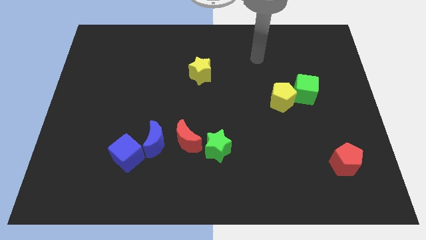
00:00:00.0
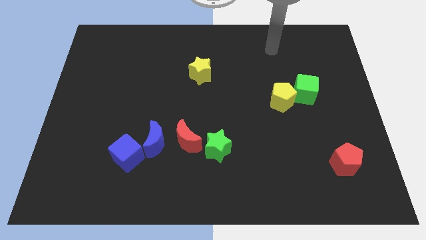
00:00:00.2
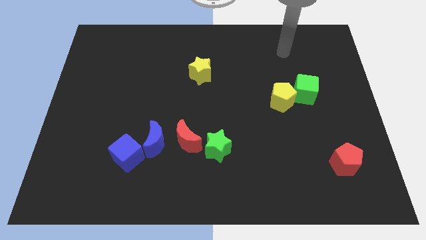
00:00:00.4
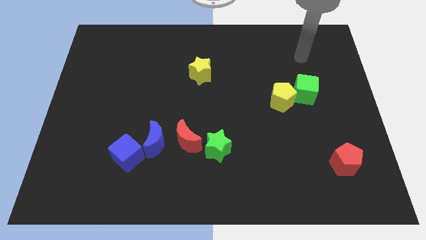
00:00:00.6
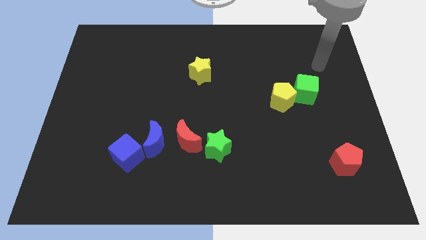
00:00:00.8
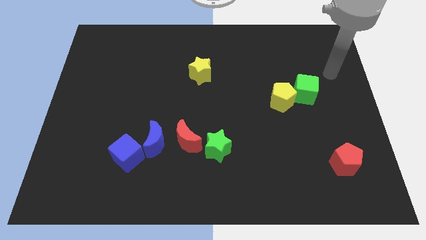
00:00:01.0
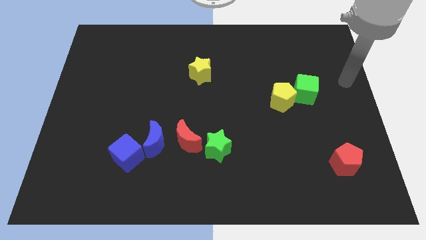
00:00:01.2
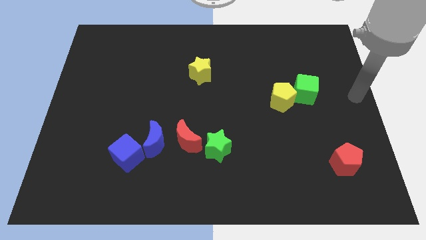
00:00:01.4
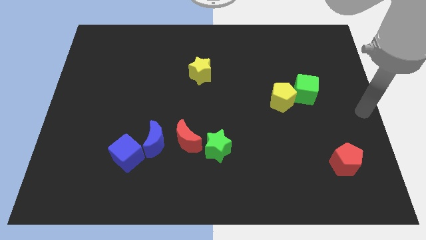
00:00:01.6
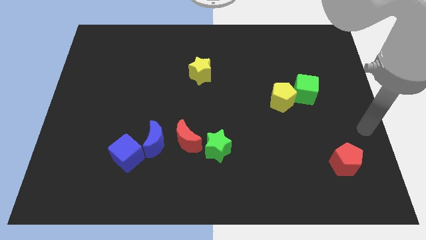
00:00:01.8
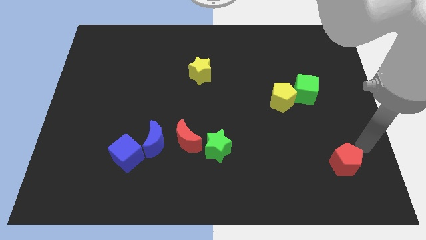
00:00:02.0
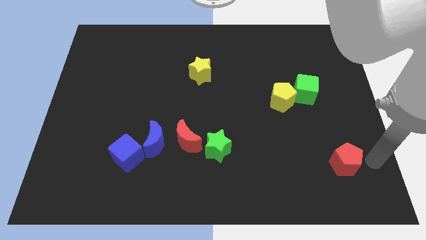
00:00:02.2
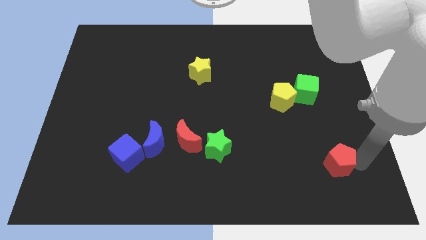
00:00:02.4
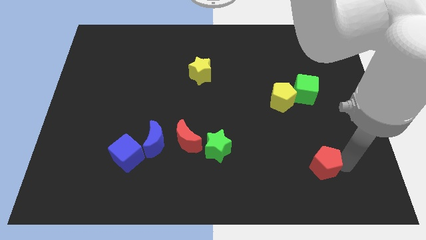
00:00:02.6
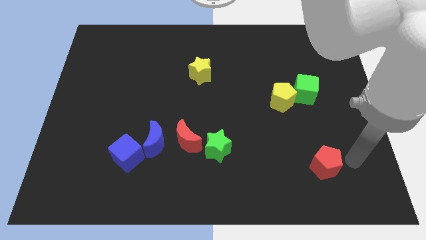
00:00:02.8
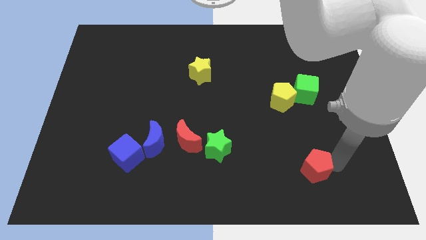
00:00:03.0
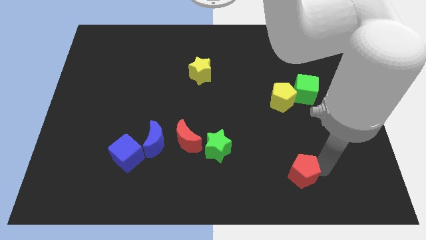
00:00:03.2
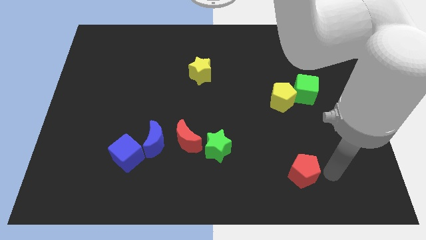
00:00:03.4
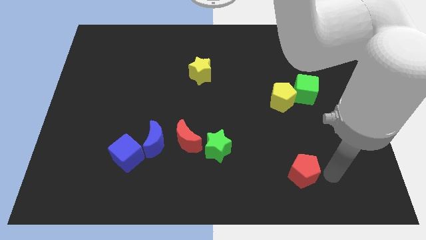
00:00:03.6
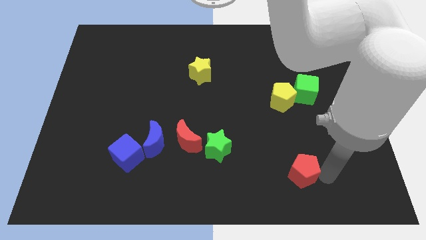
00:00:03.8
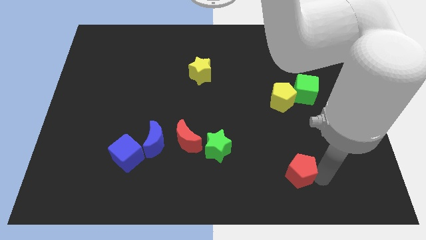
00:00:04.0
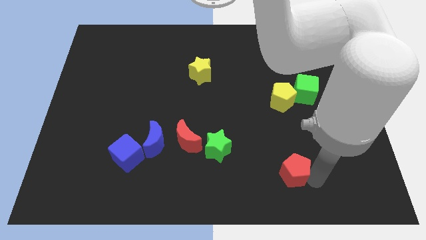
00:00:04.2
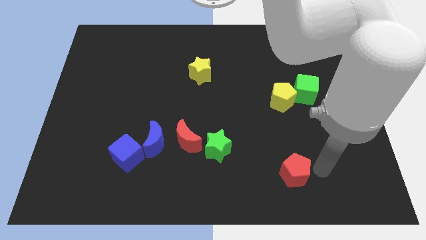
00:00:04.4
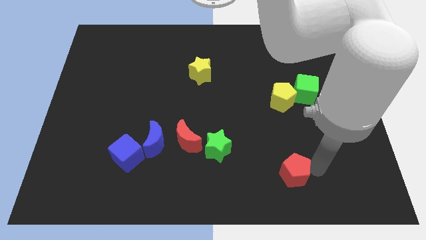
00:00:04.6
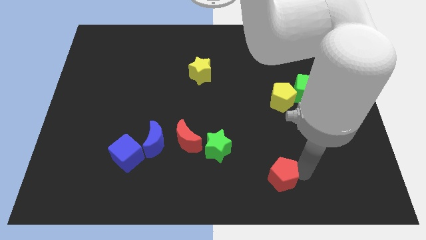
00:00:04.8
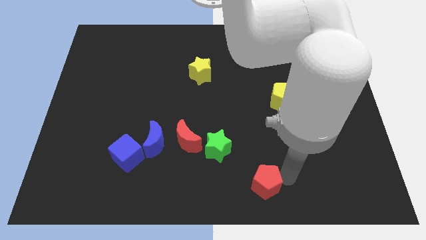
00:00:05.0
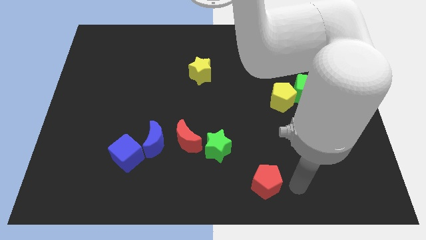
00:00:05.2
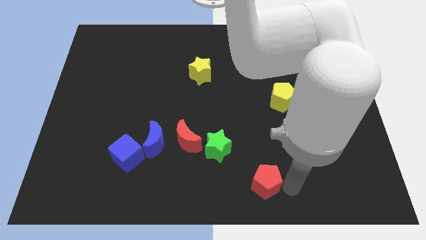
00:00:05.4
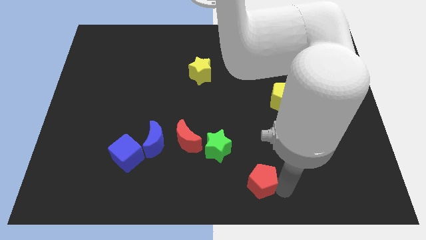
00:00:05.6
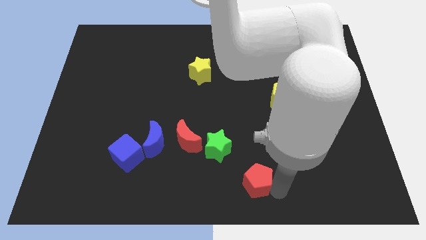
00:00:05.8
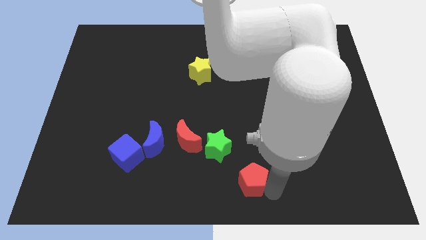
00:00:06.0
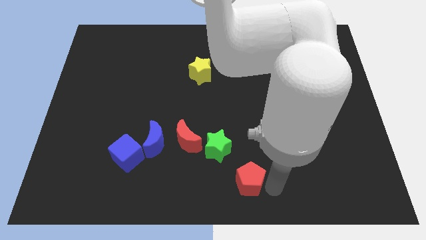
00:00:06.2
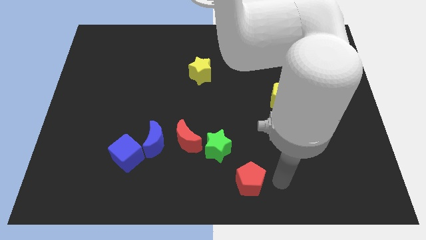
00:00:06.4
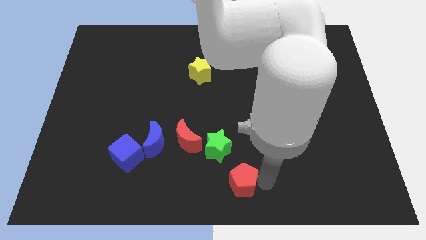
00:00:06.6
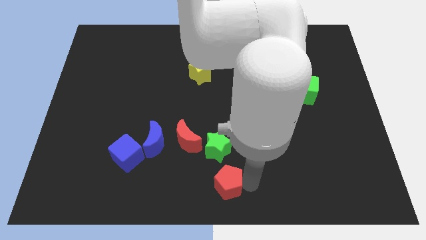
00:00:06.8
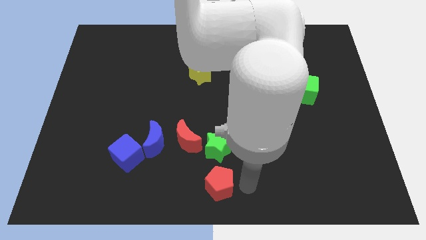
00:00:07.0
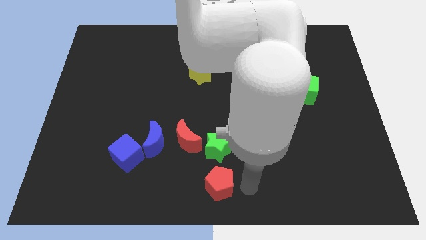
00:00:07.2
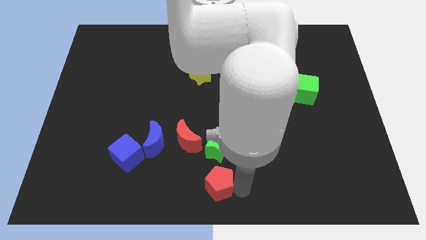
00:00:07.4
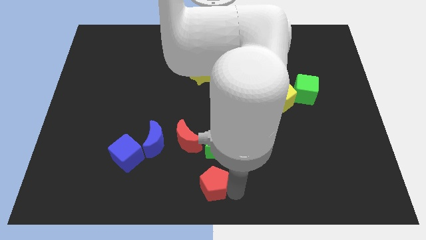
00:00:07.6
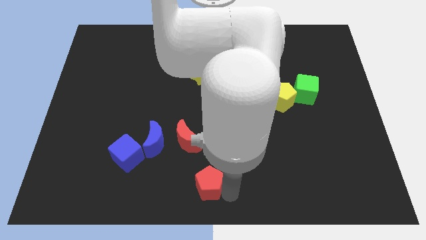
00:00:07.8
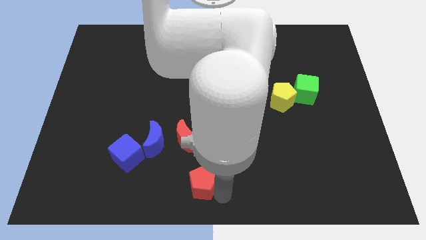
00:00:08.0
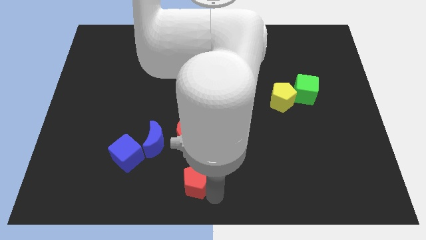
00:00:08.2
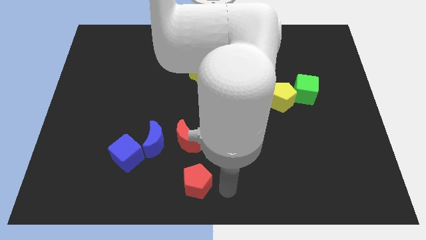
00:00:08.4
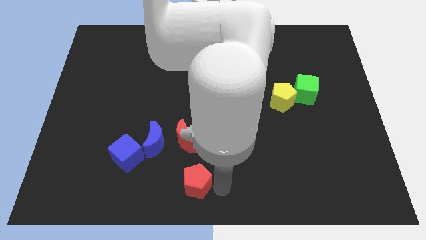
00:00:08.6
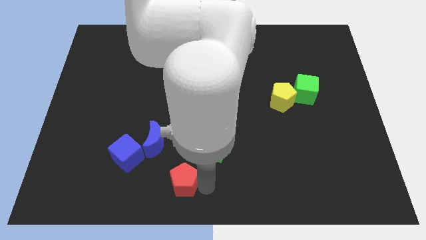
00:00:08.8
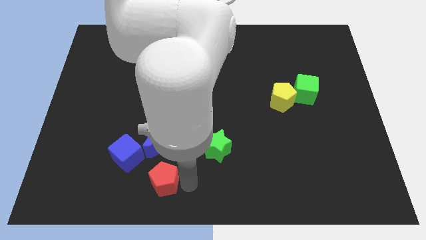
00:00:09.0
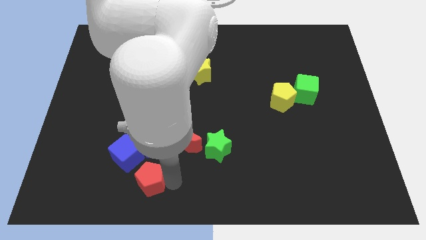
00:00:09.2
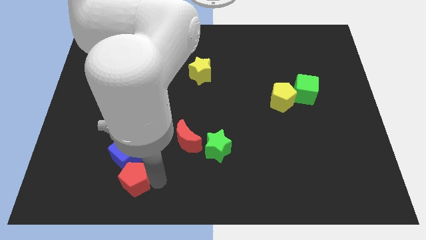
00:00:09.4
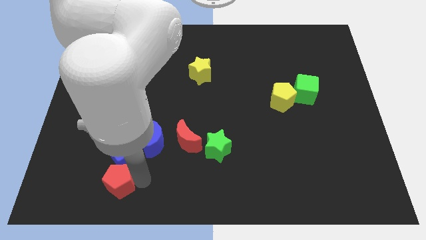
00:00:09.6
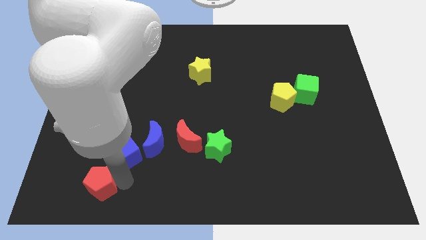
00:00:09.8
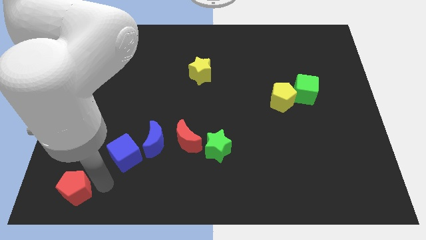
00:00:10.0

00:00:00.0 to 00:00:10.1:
push the red pentagon to the lower left corner
